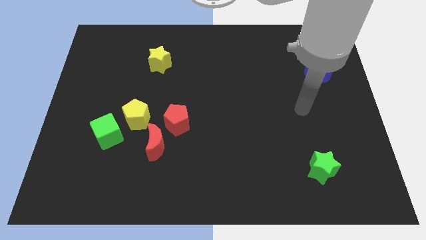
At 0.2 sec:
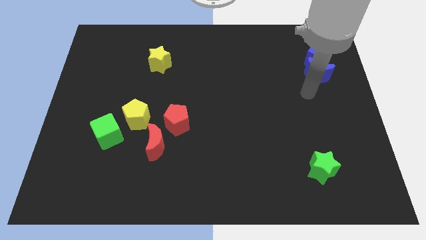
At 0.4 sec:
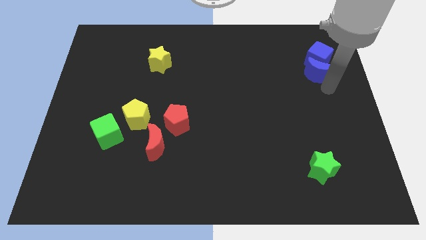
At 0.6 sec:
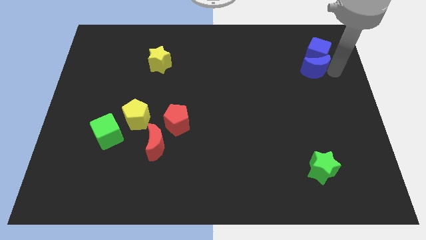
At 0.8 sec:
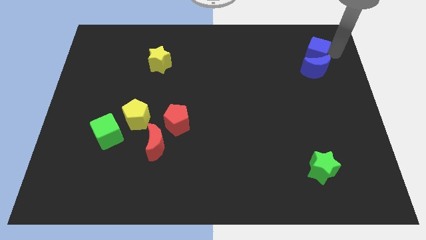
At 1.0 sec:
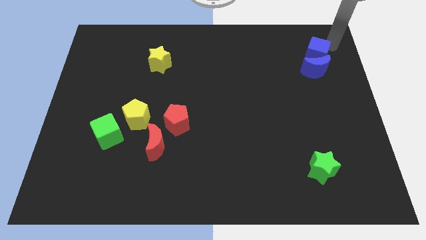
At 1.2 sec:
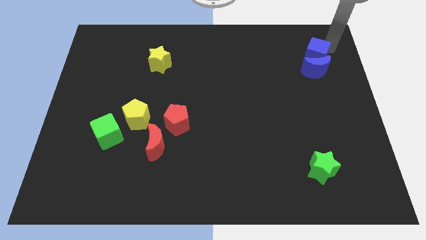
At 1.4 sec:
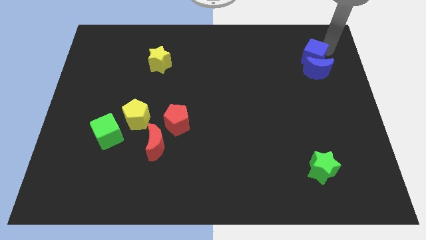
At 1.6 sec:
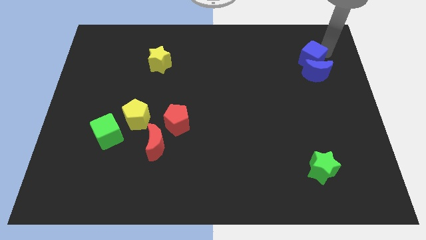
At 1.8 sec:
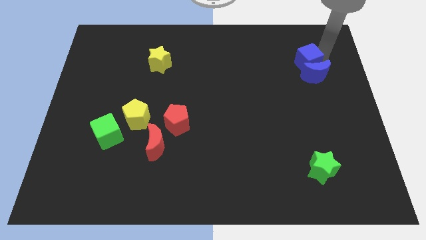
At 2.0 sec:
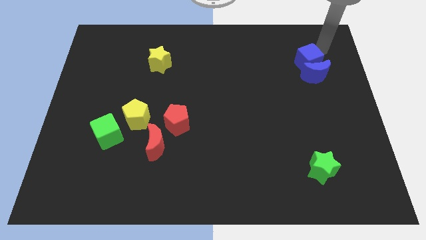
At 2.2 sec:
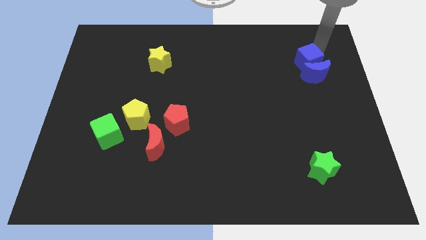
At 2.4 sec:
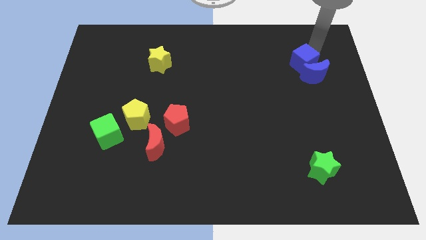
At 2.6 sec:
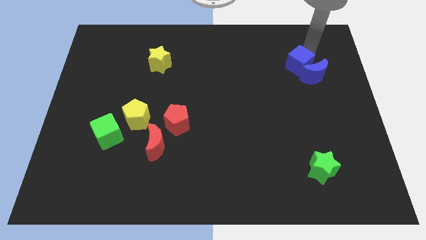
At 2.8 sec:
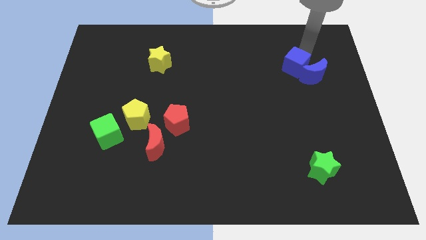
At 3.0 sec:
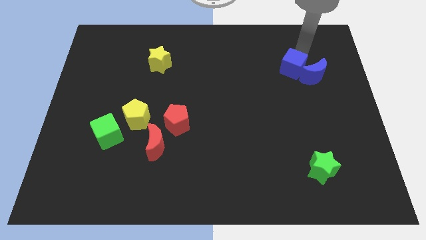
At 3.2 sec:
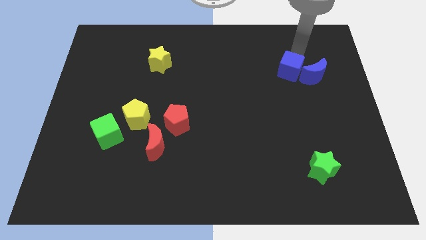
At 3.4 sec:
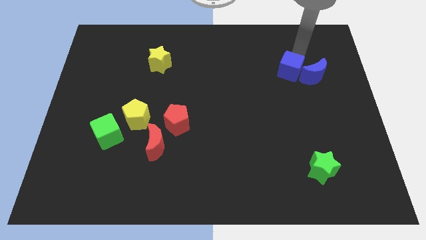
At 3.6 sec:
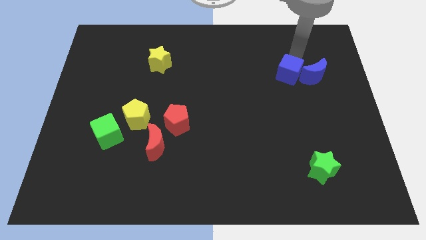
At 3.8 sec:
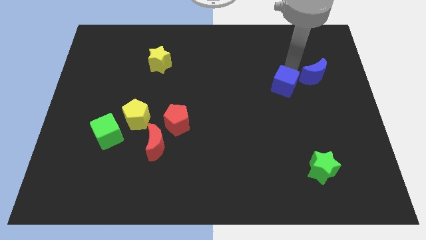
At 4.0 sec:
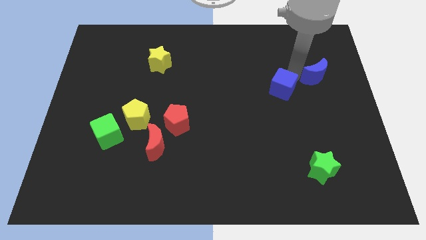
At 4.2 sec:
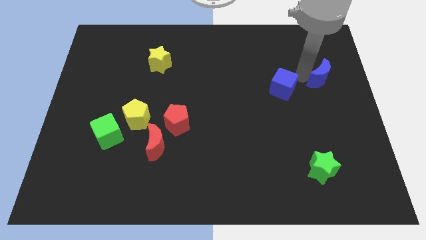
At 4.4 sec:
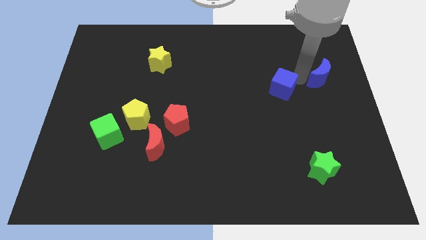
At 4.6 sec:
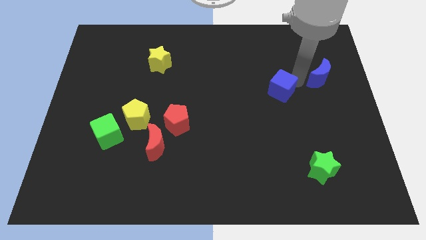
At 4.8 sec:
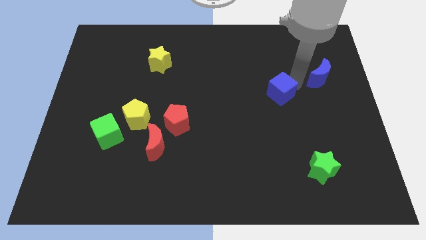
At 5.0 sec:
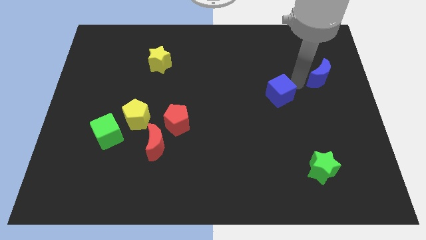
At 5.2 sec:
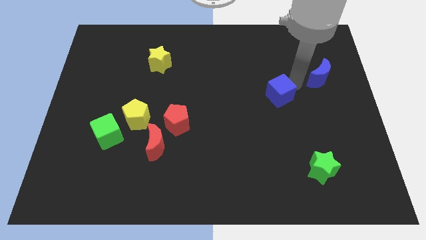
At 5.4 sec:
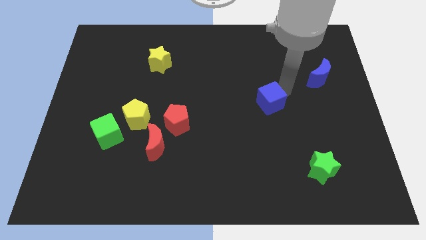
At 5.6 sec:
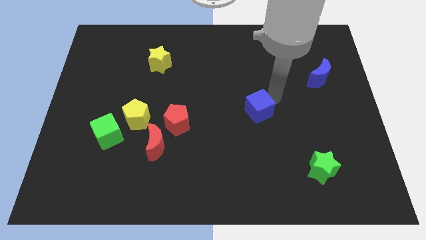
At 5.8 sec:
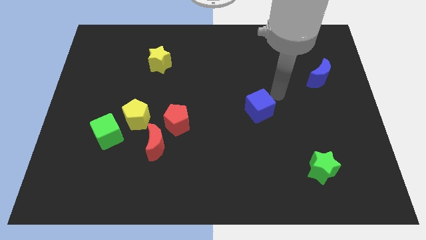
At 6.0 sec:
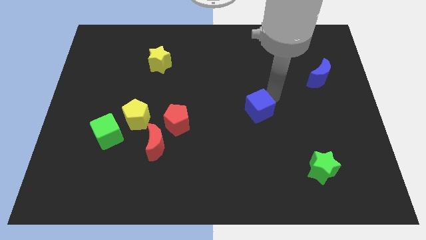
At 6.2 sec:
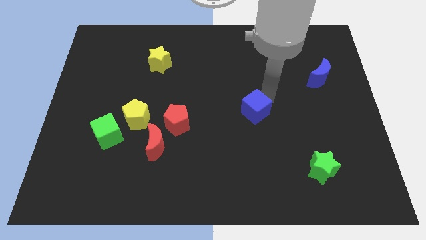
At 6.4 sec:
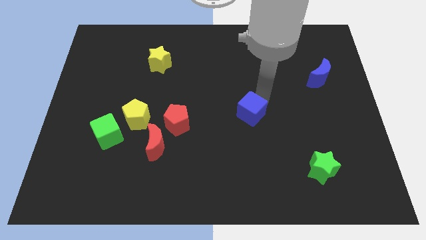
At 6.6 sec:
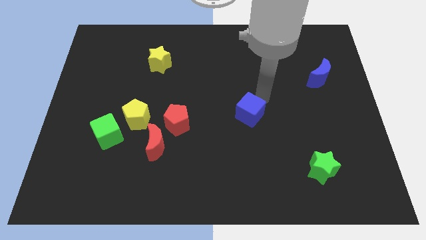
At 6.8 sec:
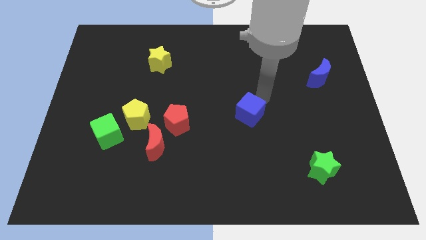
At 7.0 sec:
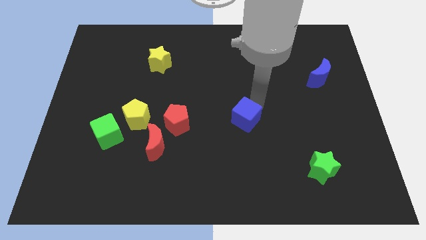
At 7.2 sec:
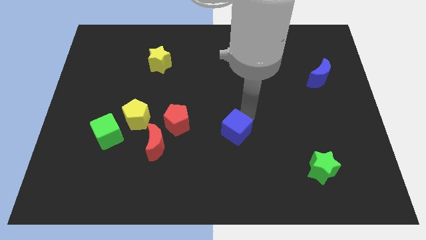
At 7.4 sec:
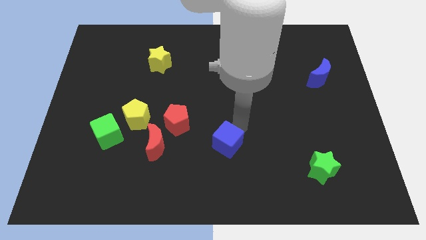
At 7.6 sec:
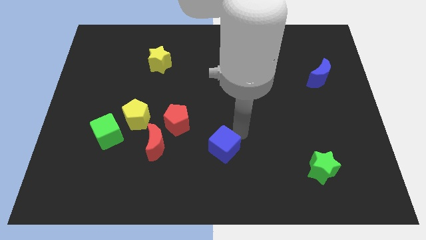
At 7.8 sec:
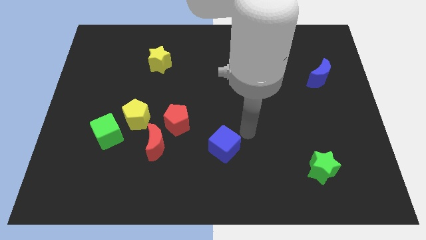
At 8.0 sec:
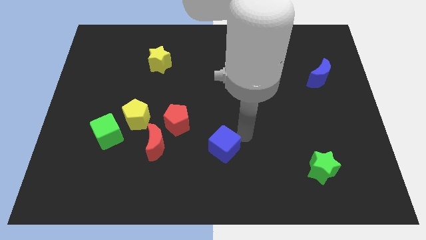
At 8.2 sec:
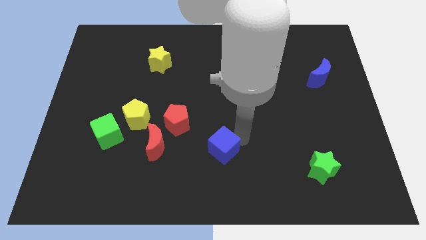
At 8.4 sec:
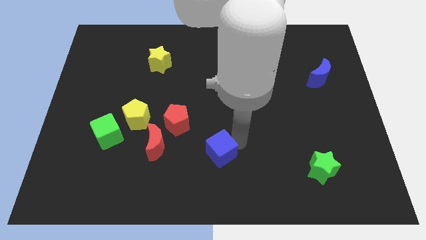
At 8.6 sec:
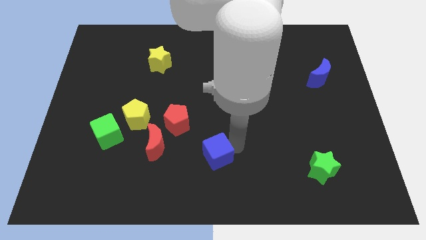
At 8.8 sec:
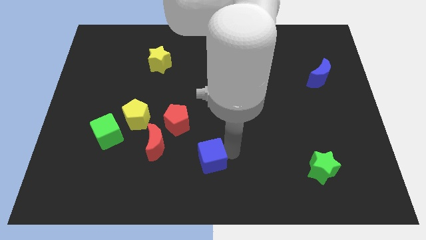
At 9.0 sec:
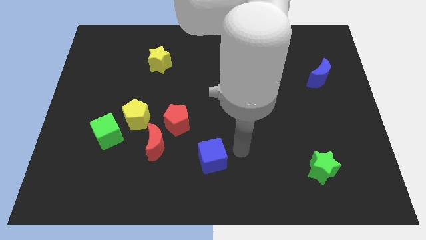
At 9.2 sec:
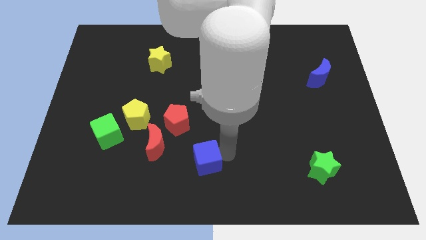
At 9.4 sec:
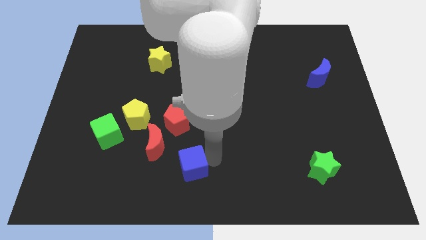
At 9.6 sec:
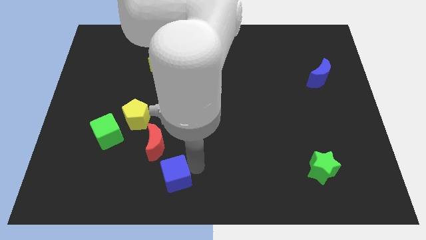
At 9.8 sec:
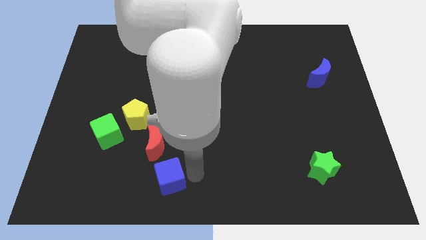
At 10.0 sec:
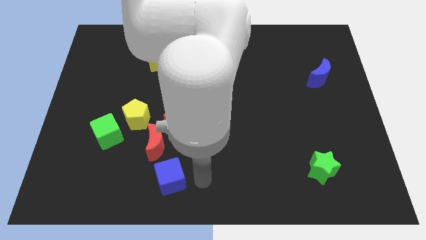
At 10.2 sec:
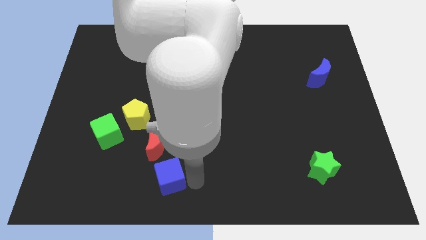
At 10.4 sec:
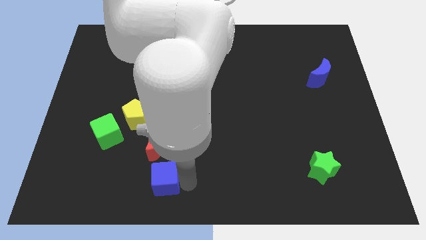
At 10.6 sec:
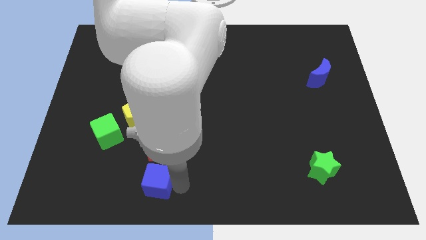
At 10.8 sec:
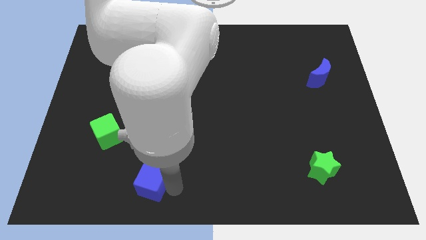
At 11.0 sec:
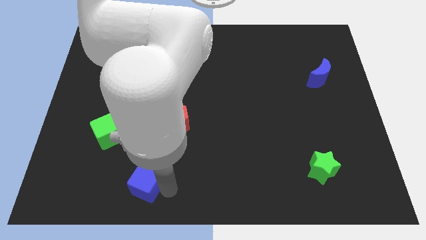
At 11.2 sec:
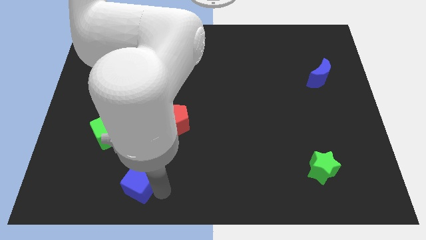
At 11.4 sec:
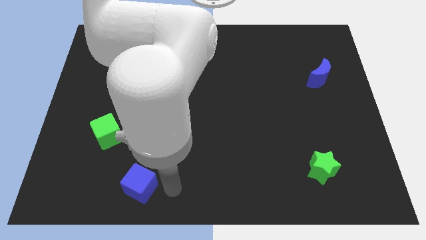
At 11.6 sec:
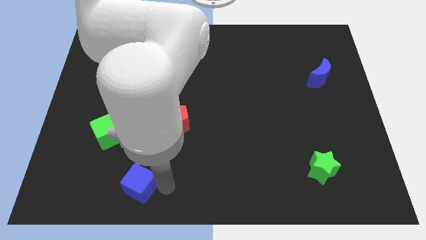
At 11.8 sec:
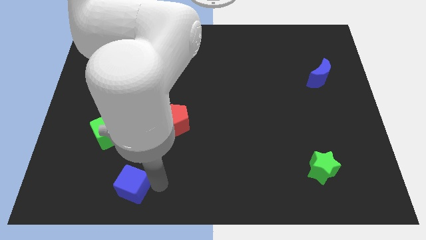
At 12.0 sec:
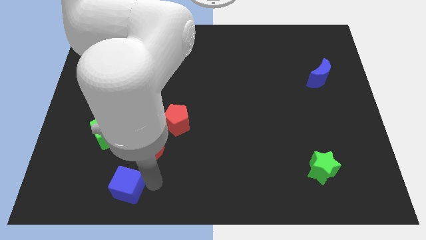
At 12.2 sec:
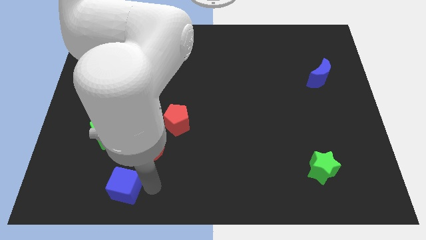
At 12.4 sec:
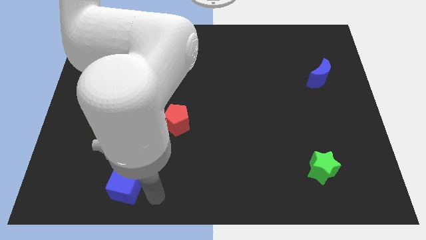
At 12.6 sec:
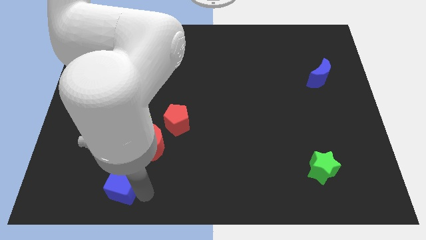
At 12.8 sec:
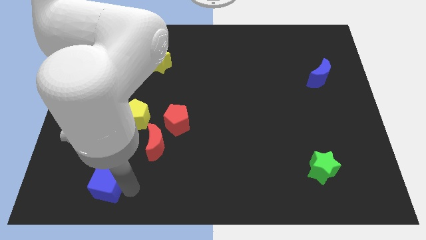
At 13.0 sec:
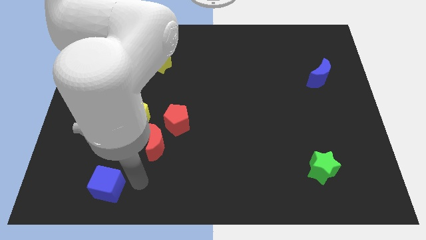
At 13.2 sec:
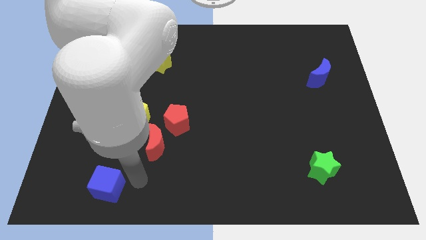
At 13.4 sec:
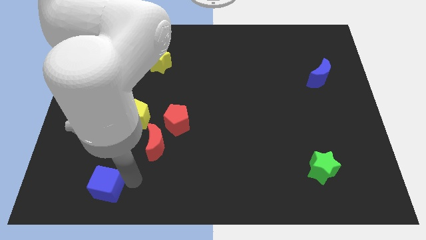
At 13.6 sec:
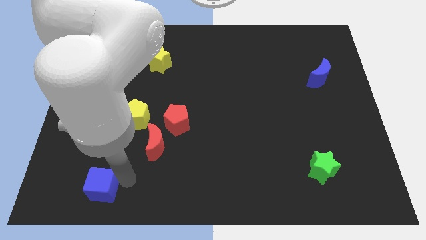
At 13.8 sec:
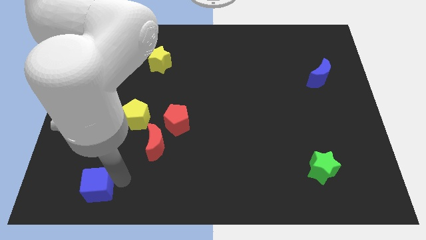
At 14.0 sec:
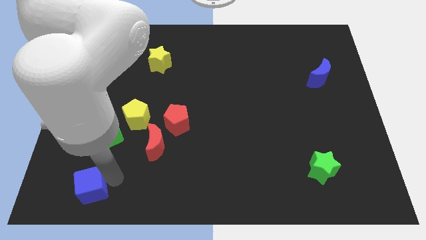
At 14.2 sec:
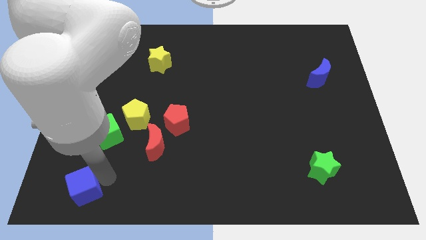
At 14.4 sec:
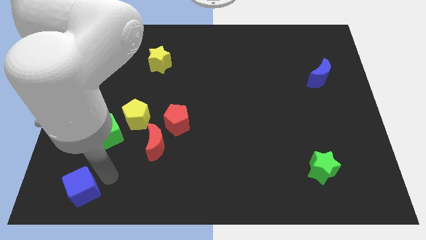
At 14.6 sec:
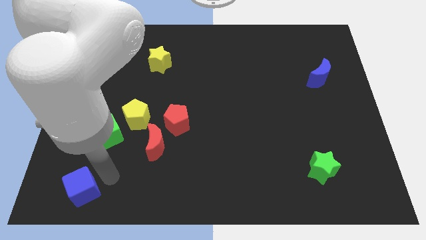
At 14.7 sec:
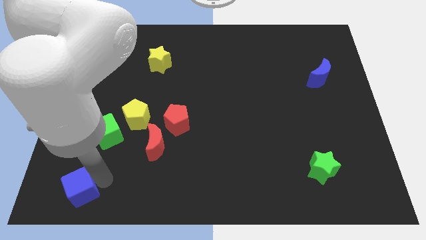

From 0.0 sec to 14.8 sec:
push the blue cube to the lower left corner
